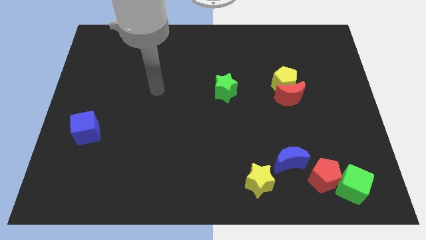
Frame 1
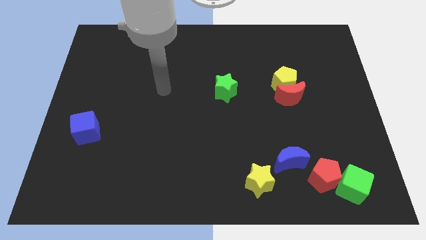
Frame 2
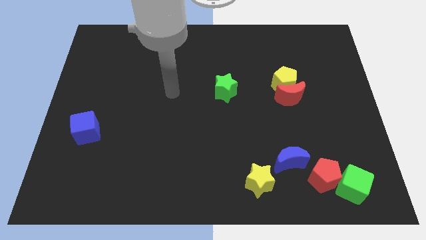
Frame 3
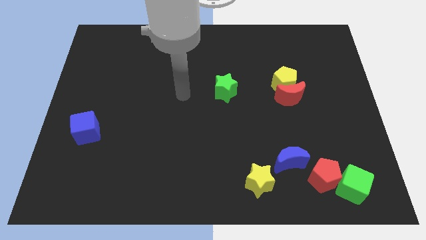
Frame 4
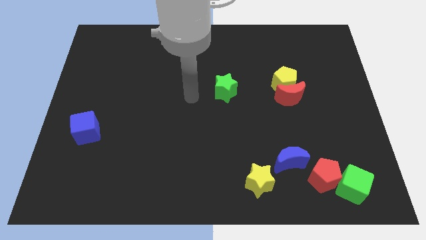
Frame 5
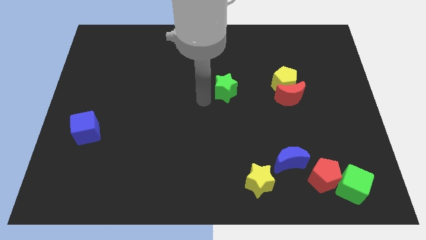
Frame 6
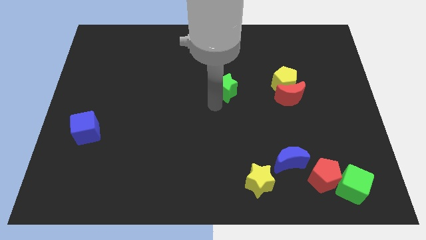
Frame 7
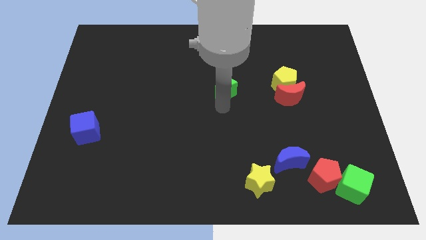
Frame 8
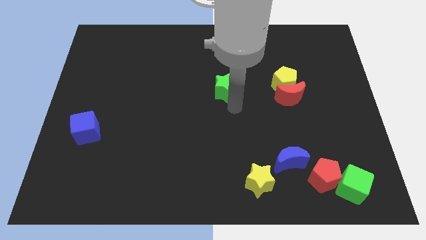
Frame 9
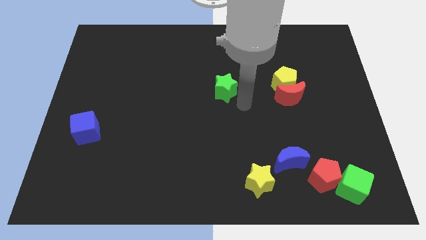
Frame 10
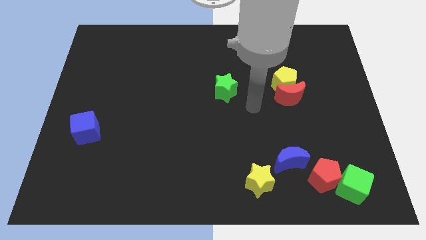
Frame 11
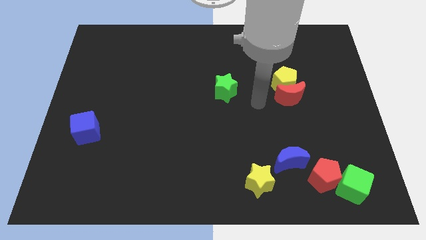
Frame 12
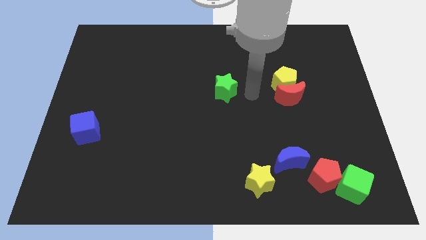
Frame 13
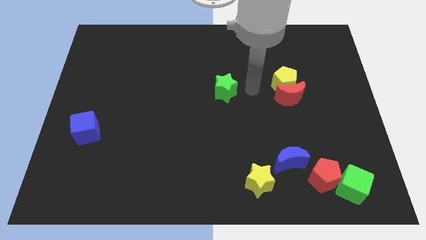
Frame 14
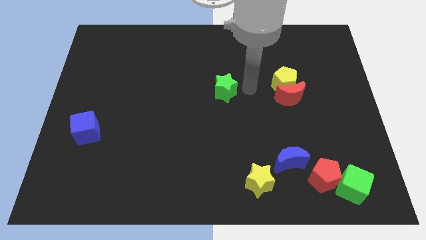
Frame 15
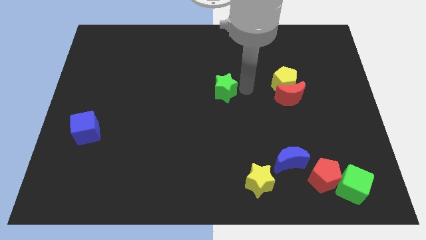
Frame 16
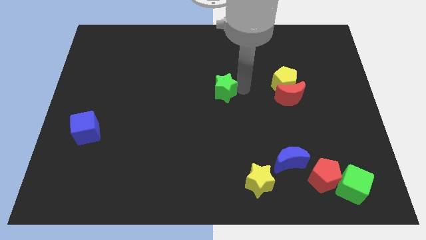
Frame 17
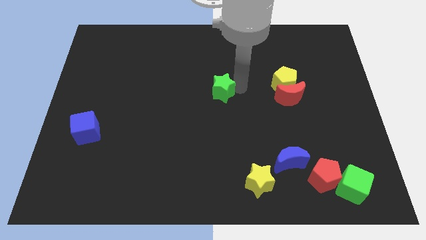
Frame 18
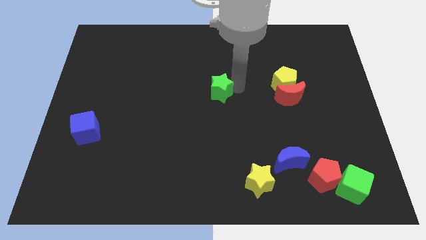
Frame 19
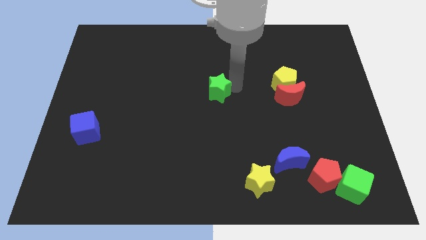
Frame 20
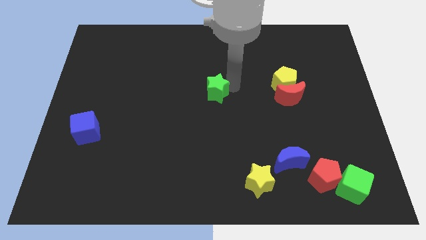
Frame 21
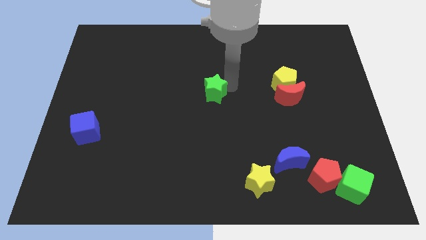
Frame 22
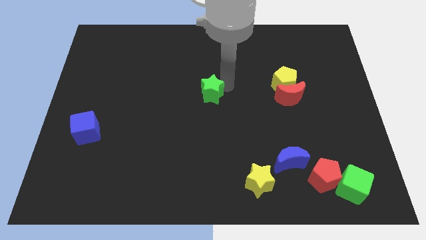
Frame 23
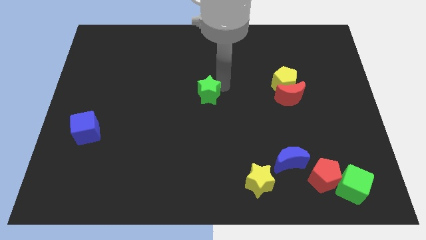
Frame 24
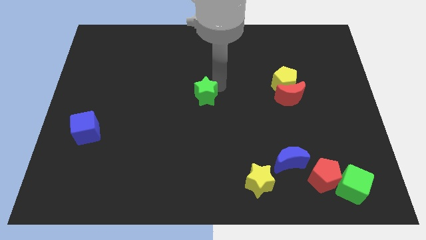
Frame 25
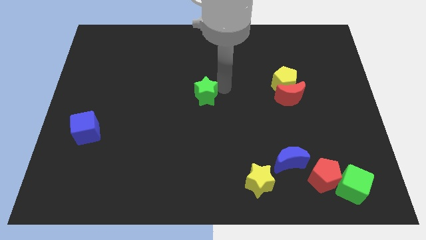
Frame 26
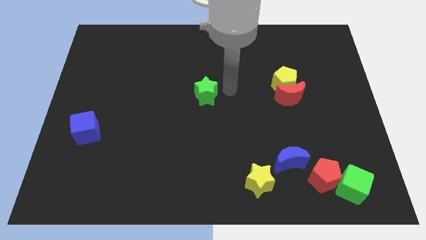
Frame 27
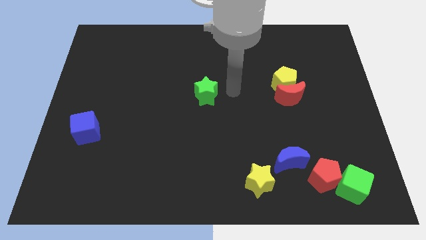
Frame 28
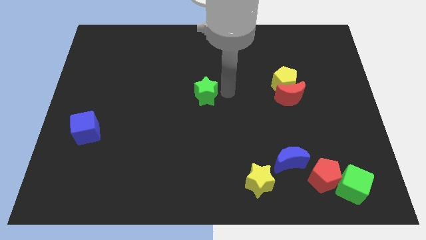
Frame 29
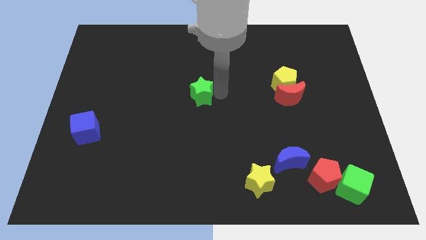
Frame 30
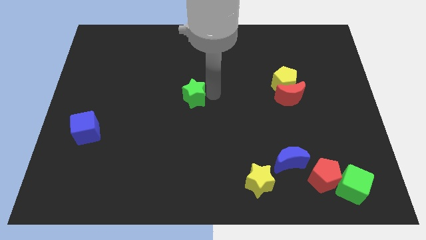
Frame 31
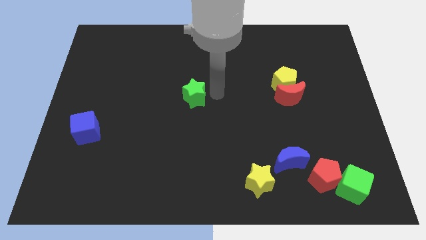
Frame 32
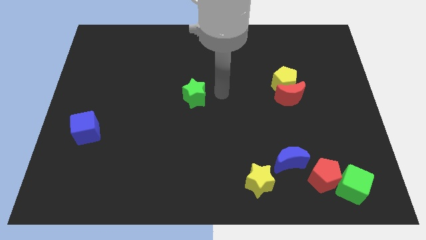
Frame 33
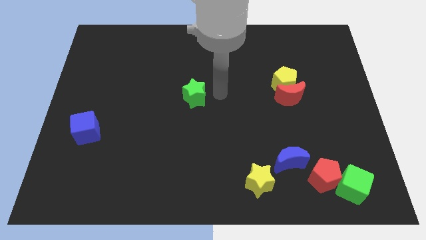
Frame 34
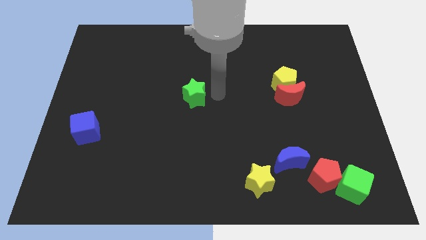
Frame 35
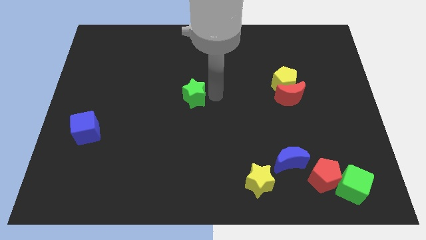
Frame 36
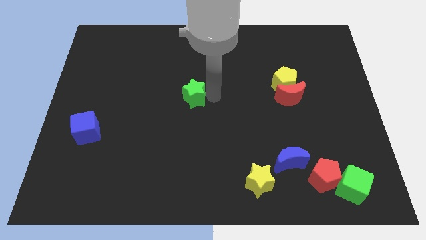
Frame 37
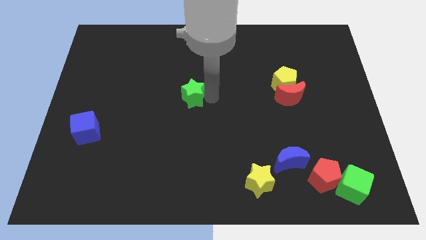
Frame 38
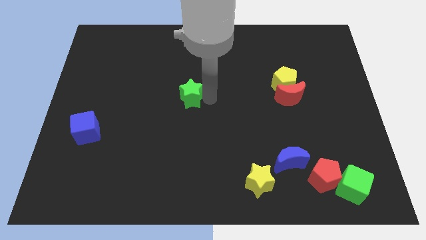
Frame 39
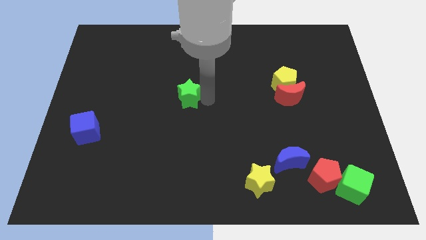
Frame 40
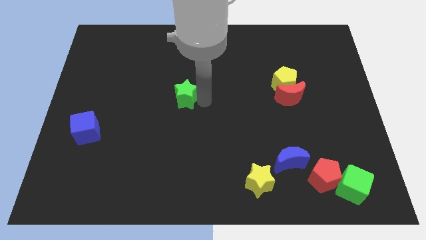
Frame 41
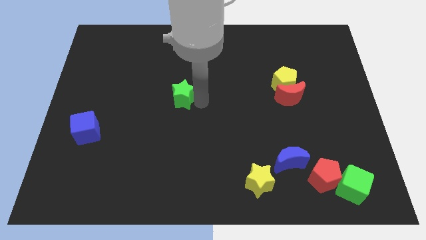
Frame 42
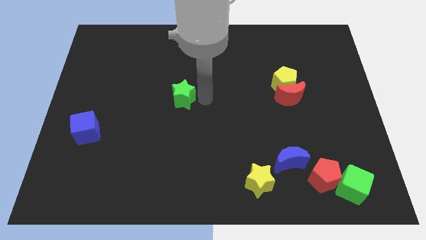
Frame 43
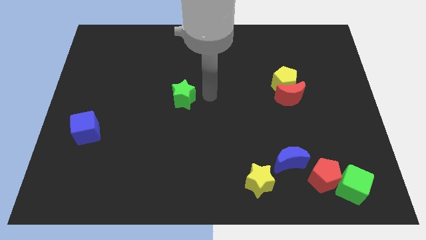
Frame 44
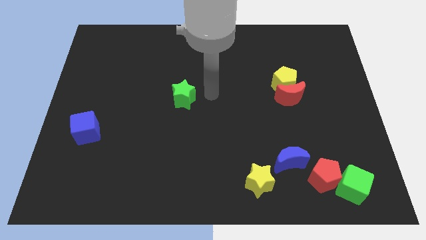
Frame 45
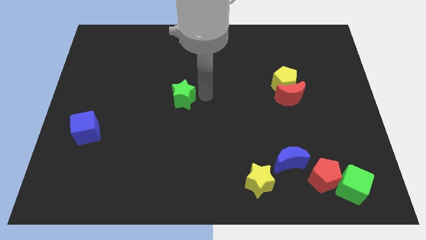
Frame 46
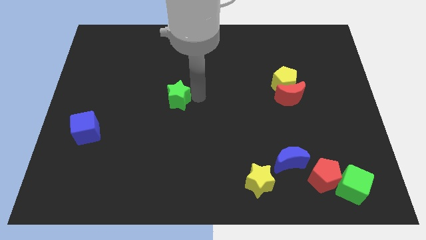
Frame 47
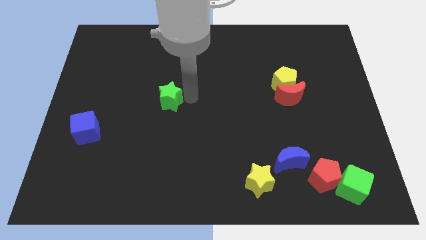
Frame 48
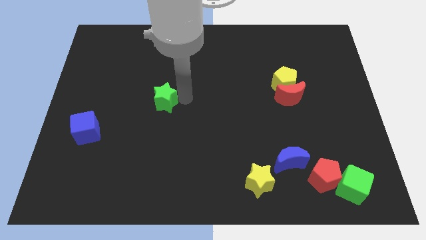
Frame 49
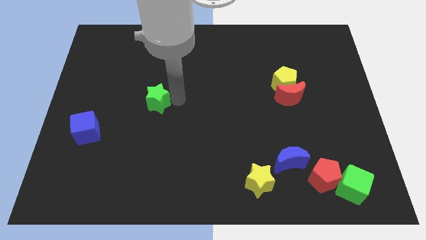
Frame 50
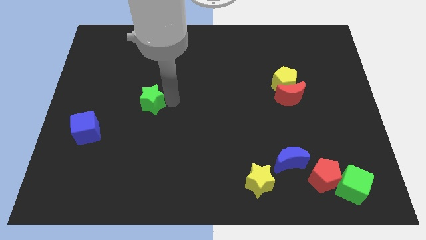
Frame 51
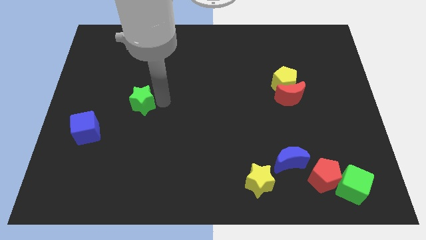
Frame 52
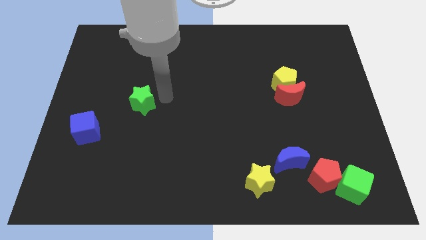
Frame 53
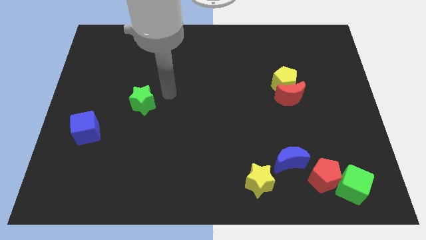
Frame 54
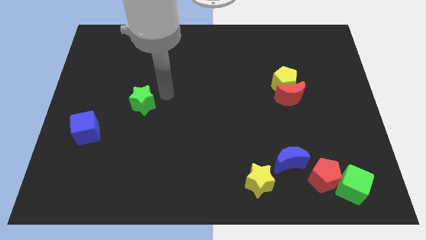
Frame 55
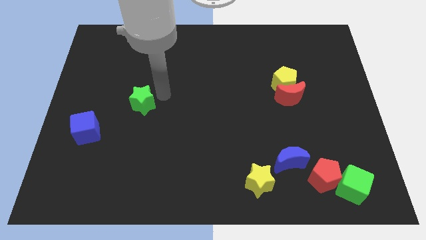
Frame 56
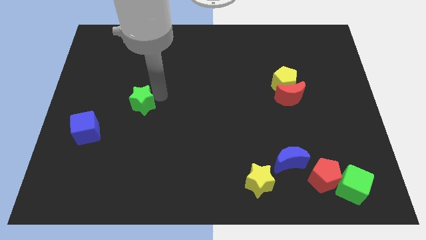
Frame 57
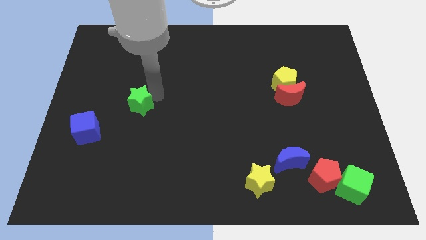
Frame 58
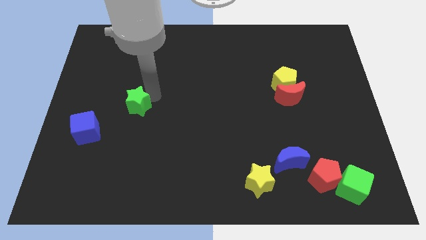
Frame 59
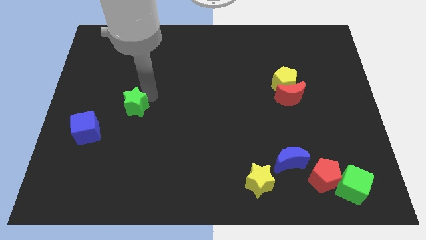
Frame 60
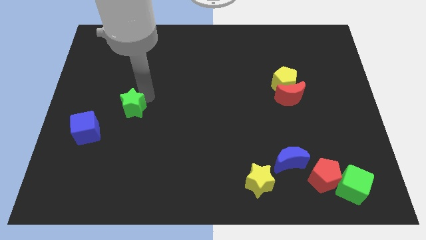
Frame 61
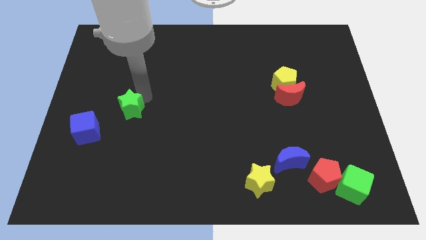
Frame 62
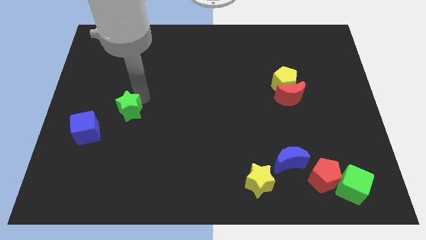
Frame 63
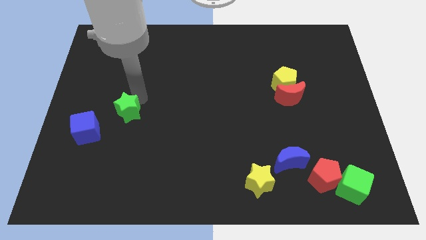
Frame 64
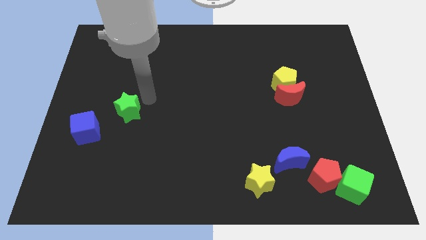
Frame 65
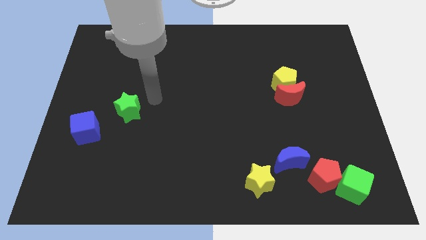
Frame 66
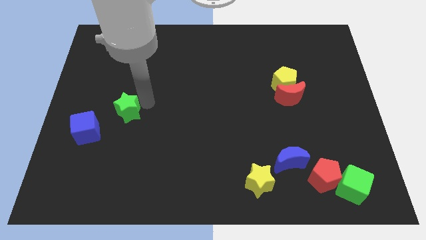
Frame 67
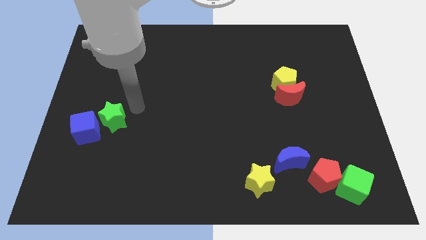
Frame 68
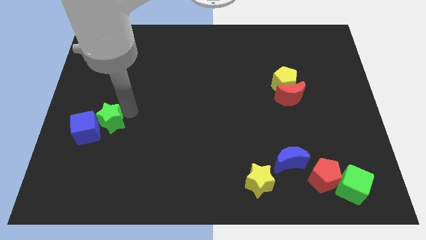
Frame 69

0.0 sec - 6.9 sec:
slide the green star to the blue cube

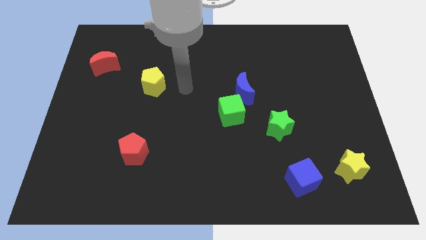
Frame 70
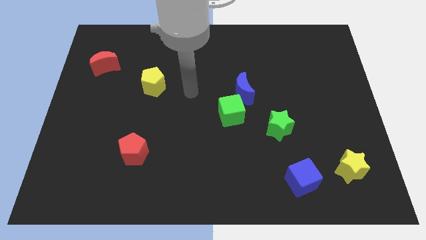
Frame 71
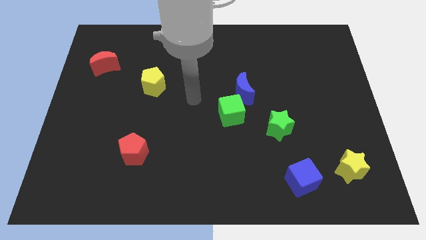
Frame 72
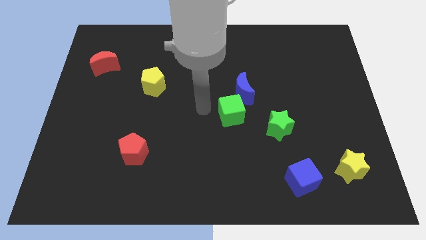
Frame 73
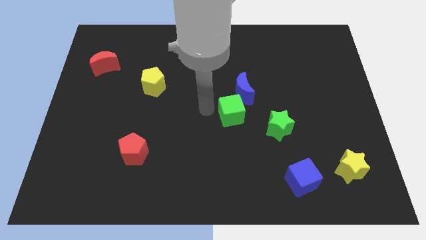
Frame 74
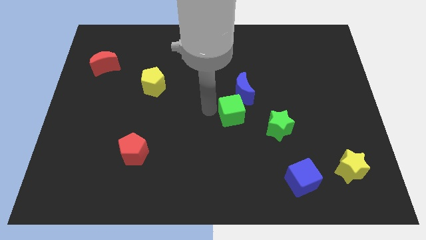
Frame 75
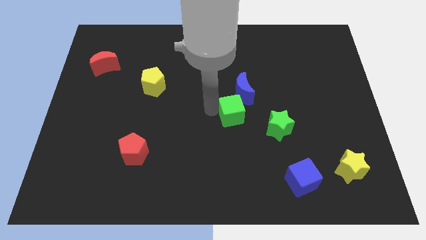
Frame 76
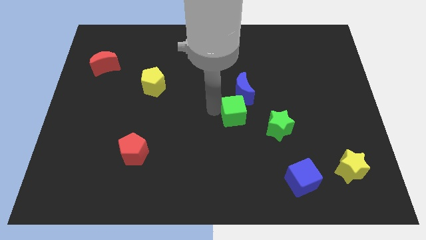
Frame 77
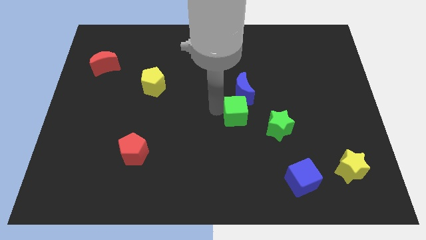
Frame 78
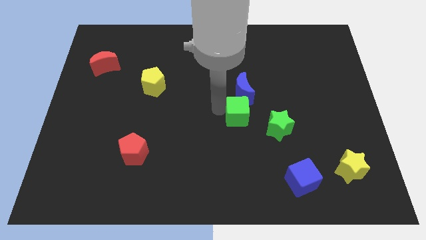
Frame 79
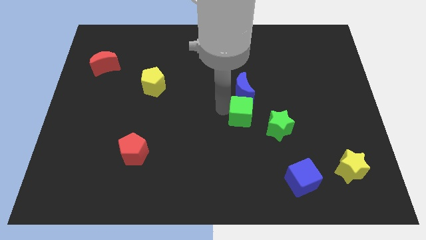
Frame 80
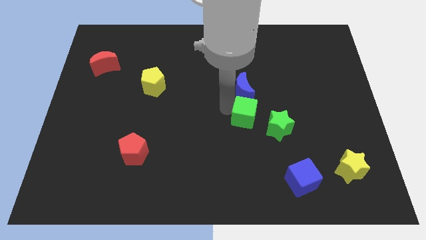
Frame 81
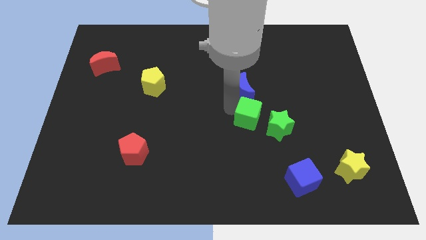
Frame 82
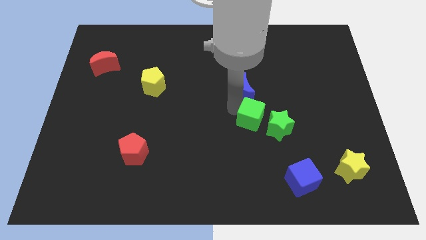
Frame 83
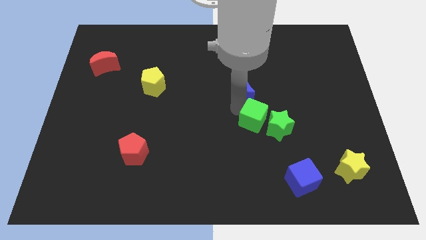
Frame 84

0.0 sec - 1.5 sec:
slide the green cube close to the green star
